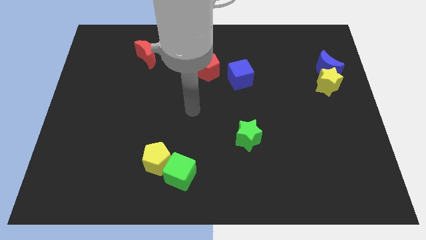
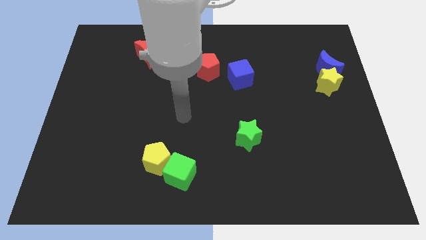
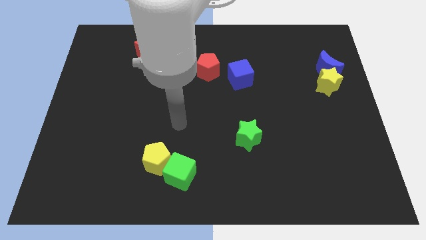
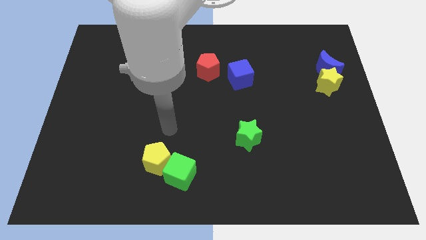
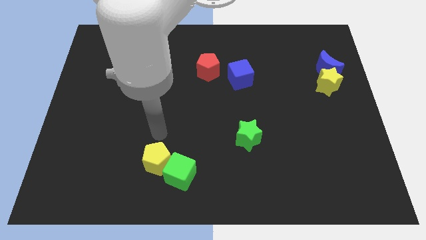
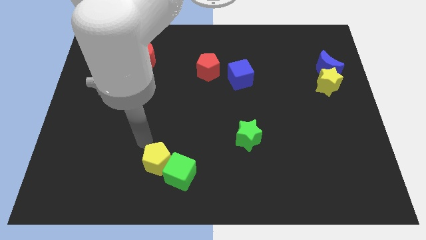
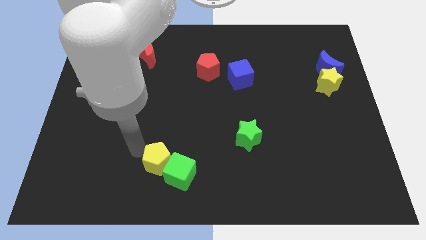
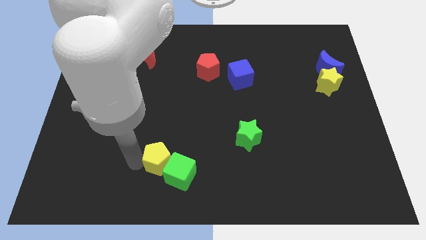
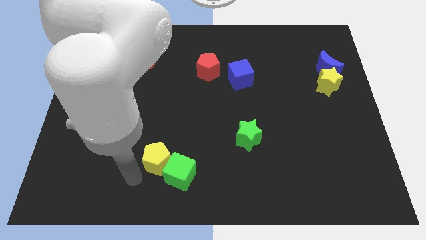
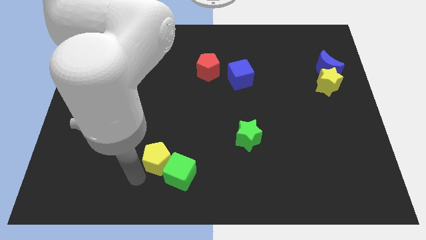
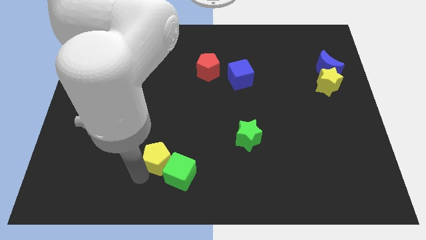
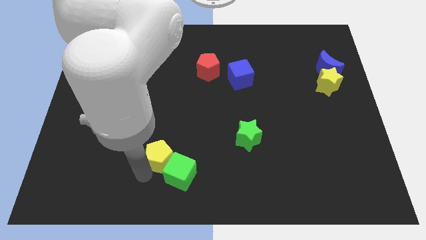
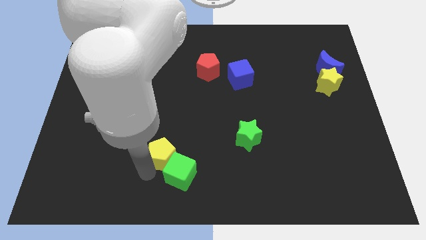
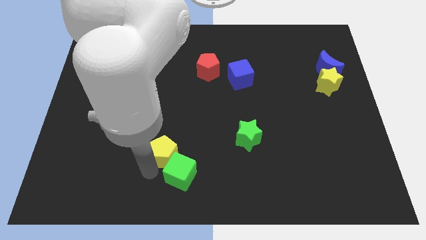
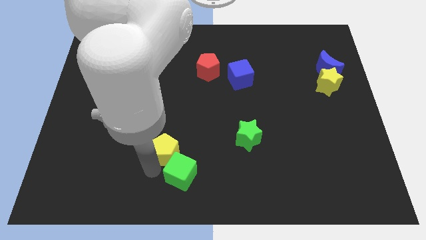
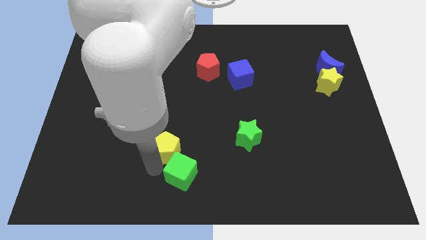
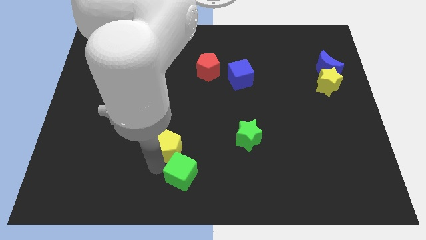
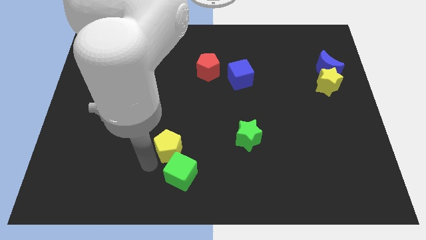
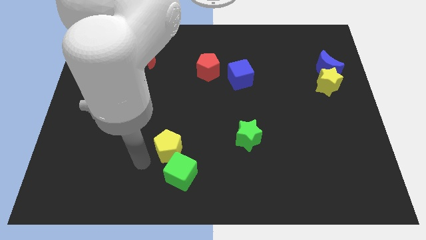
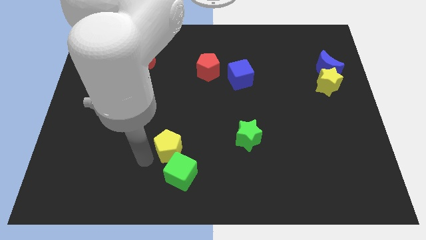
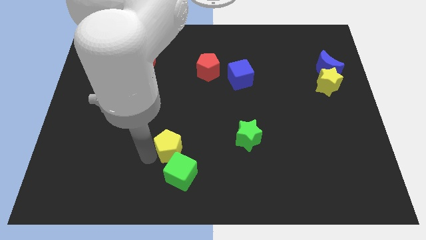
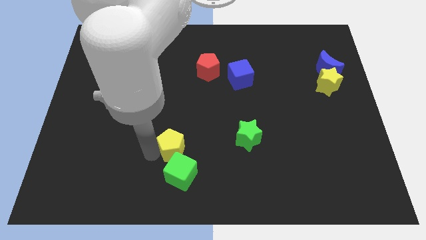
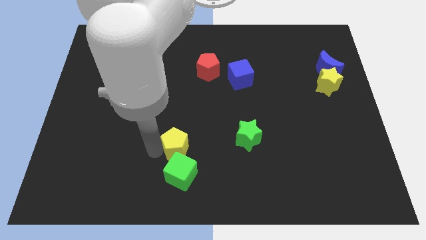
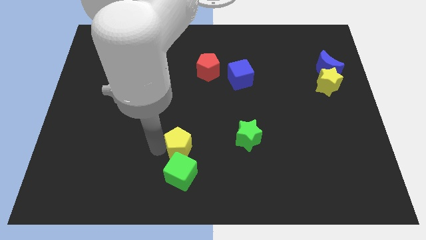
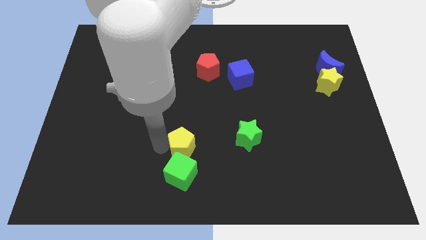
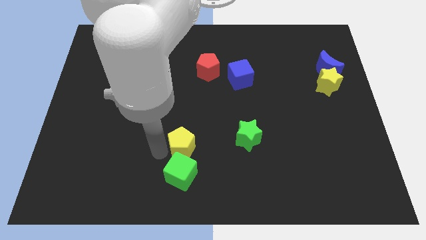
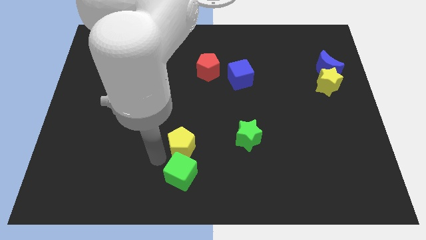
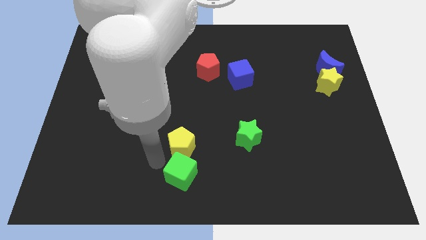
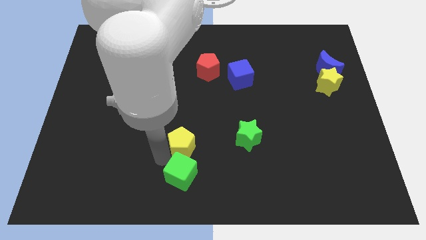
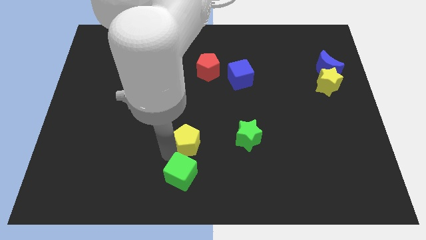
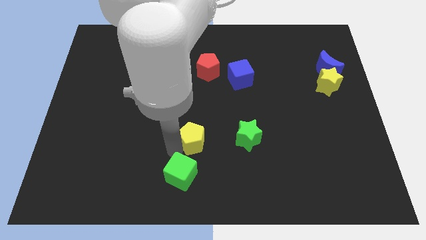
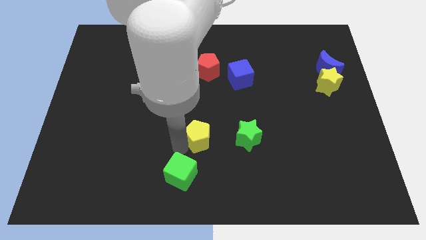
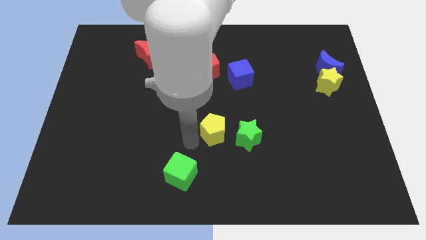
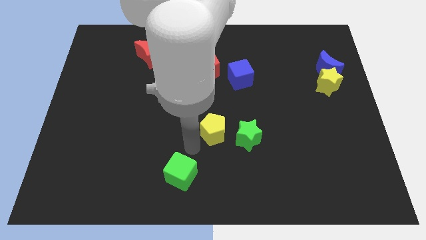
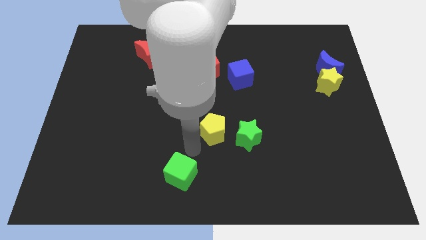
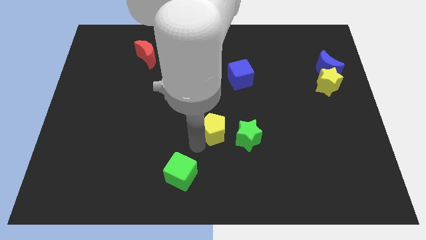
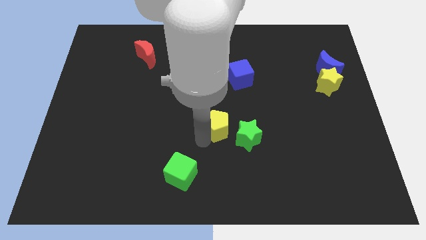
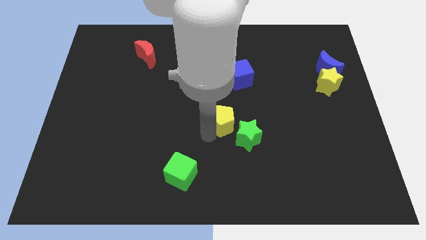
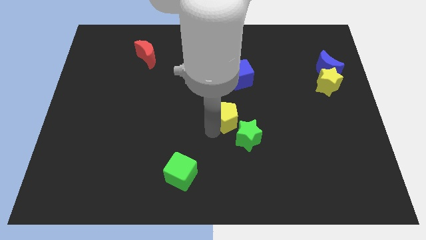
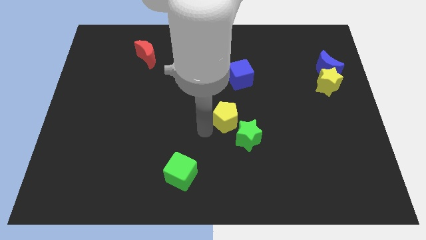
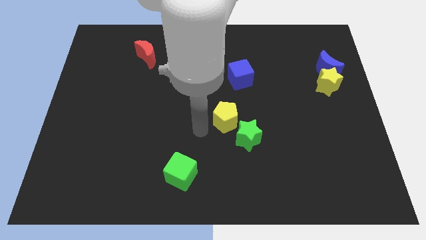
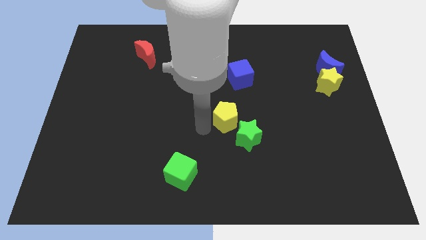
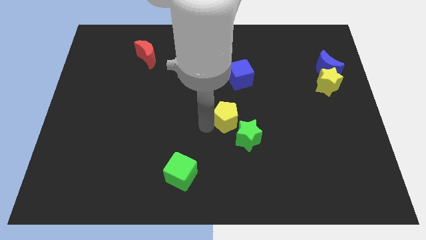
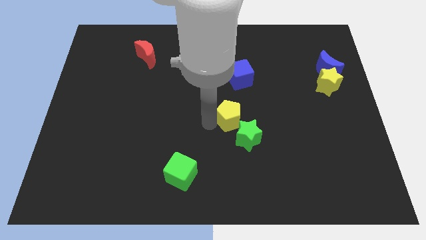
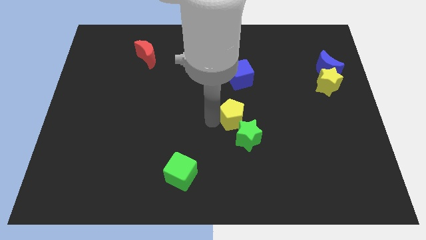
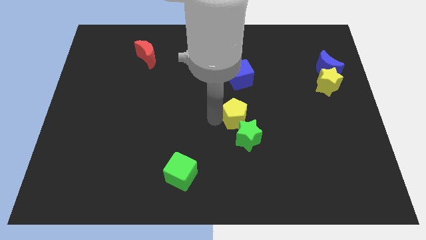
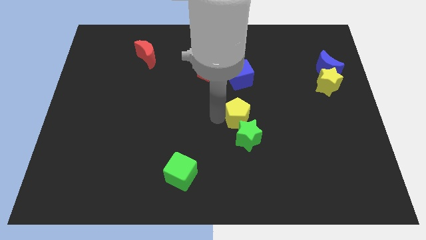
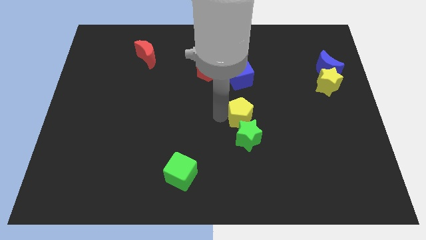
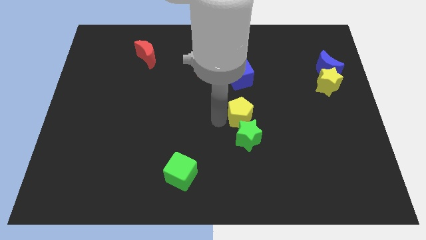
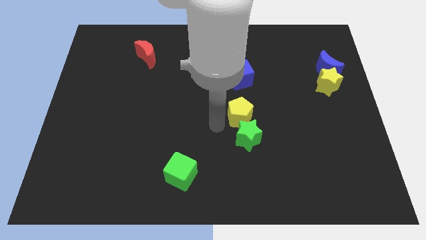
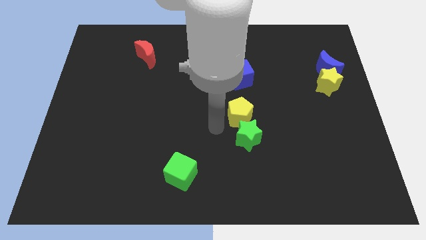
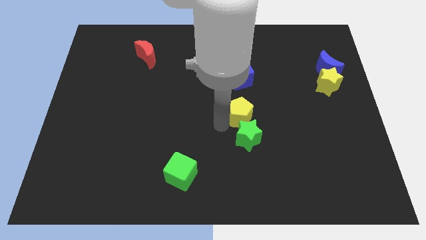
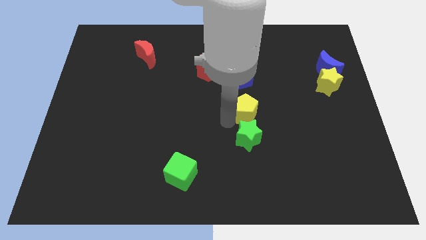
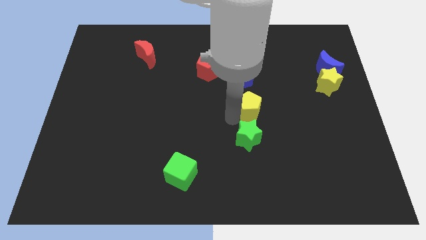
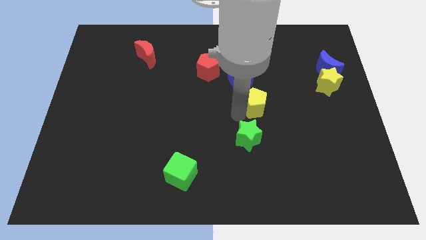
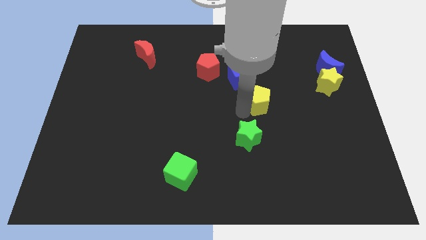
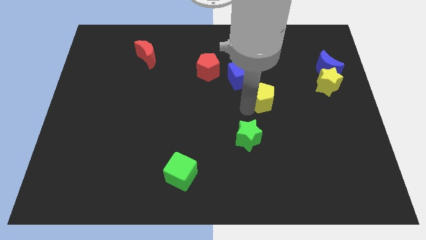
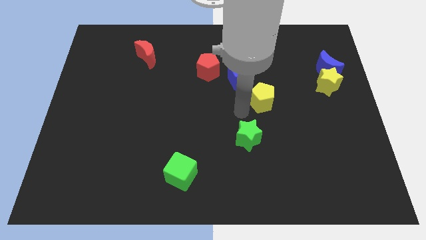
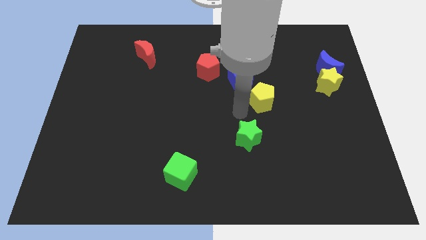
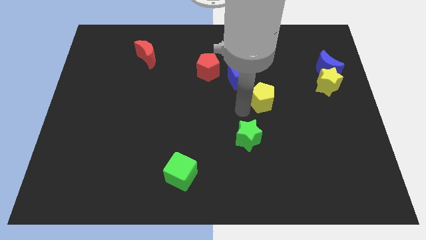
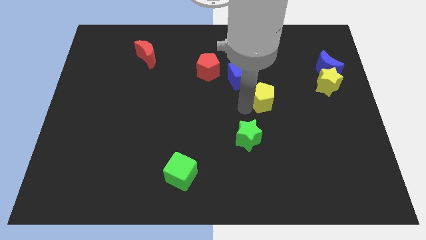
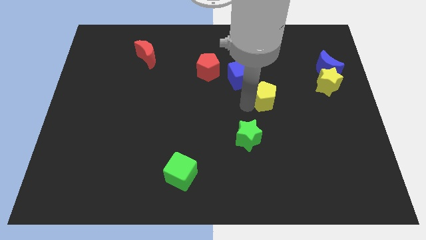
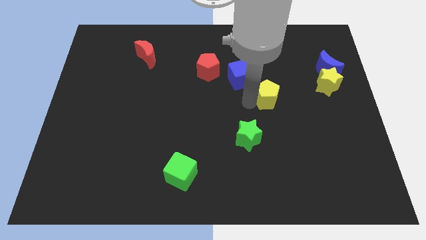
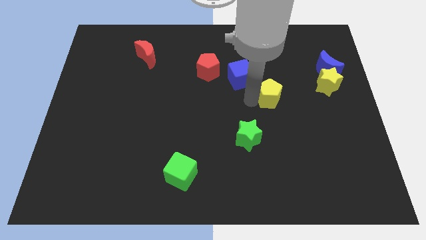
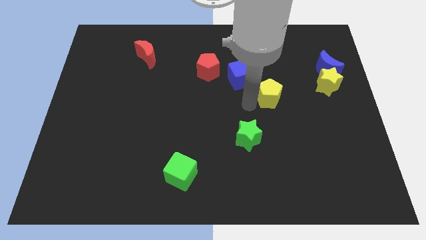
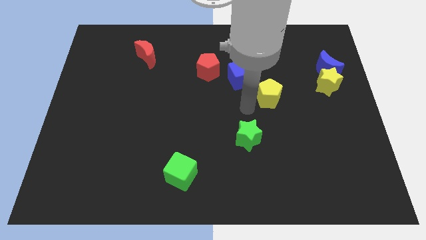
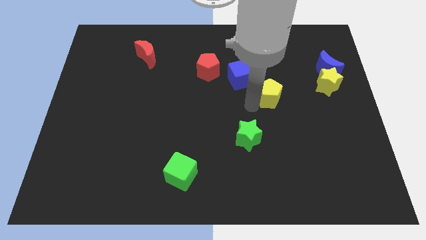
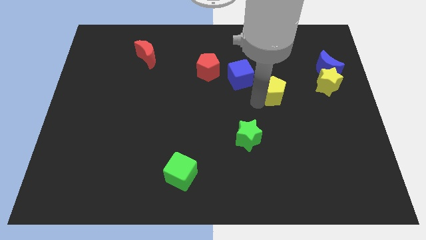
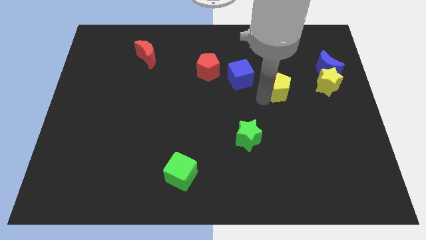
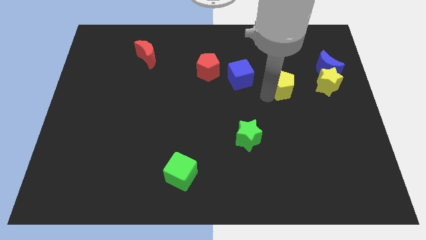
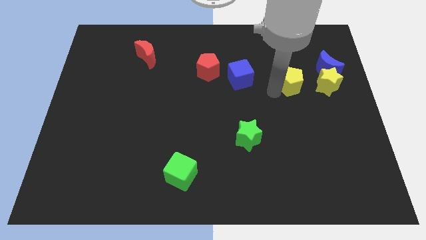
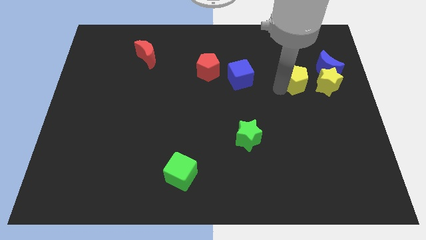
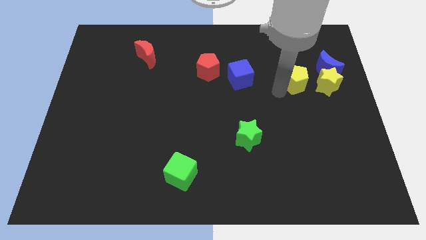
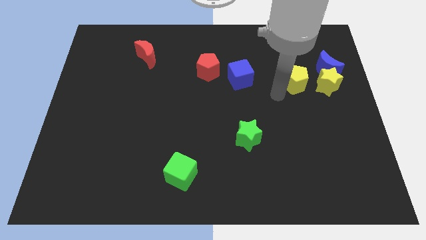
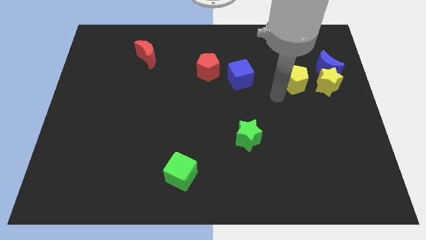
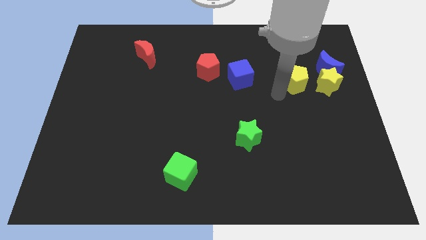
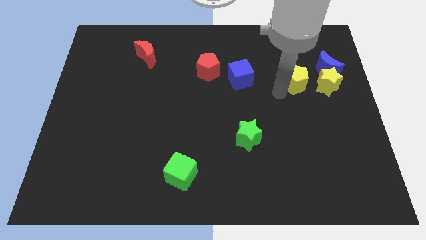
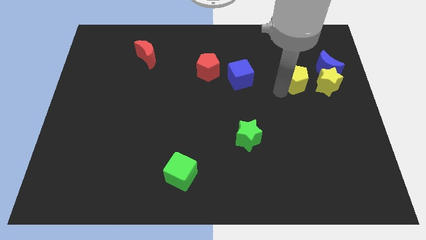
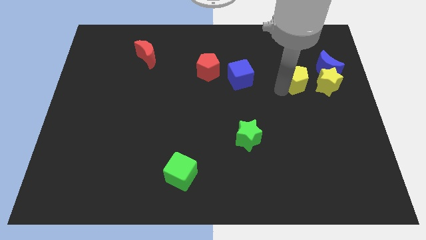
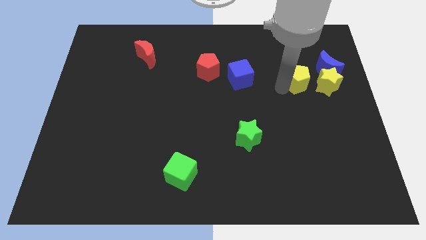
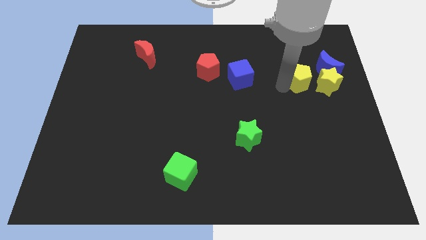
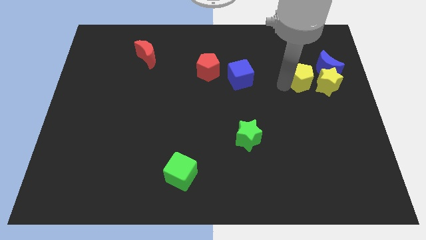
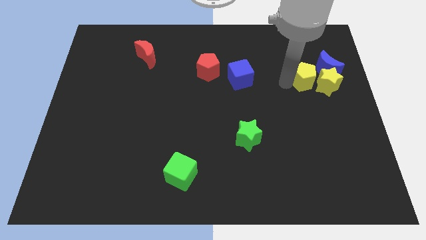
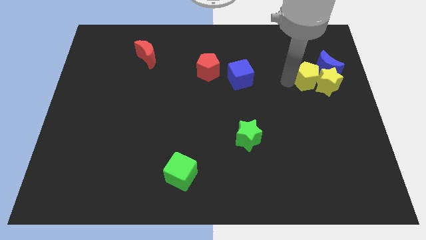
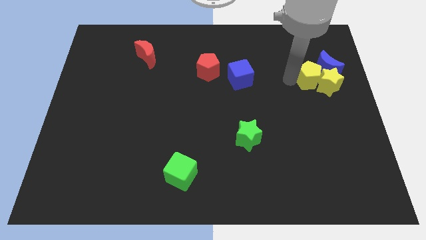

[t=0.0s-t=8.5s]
slide the yellow pentagon close to the blue moon

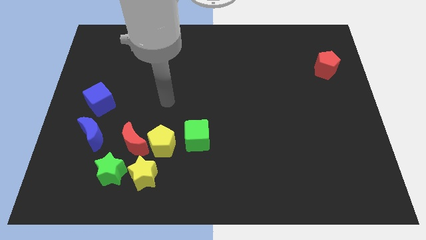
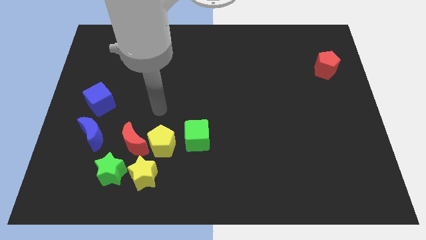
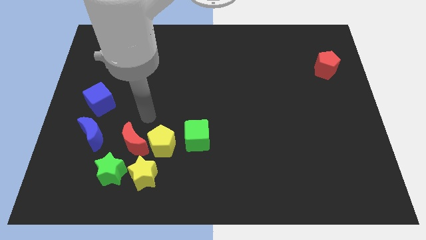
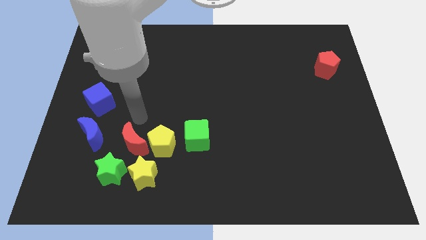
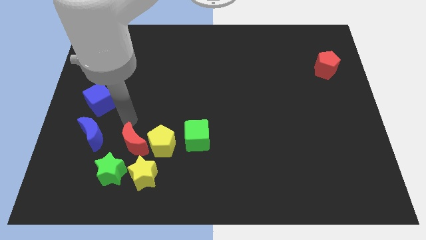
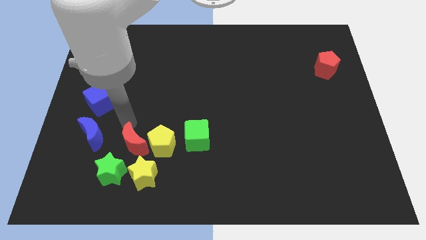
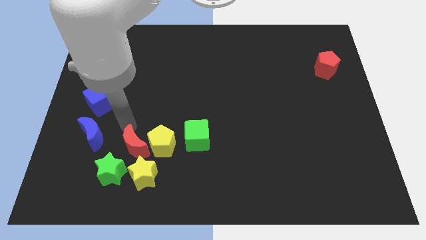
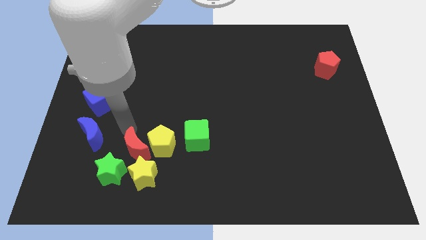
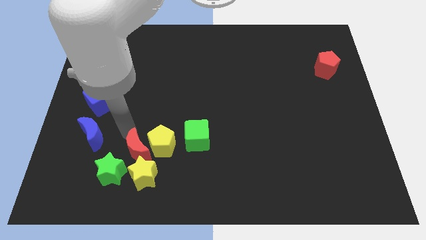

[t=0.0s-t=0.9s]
slide the red moon towards the yellow star
